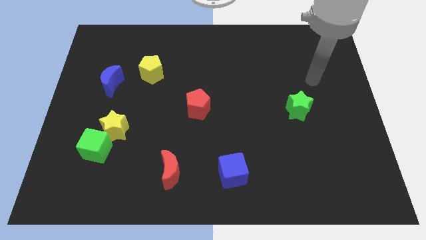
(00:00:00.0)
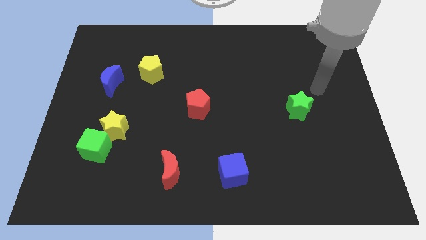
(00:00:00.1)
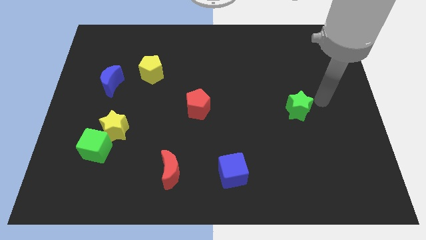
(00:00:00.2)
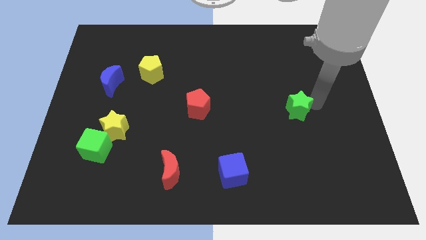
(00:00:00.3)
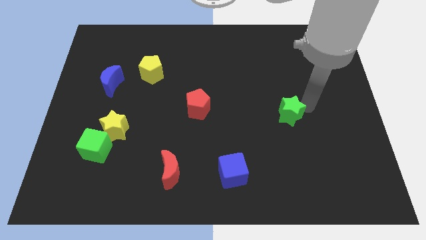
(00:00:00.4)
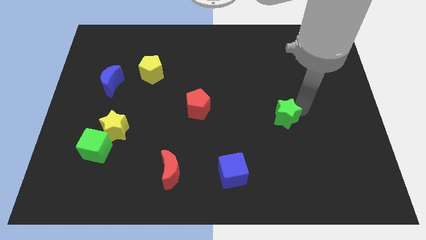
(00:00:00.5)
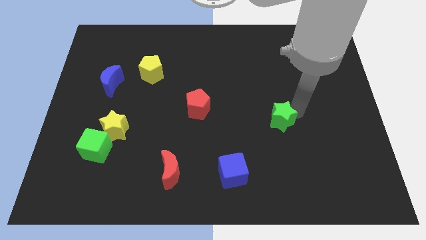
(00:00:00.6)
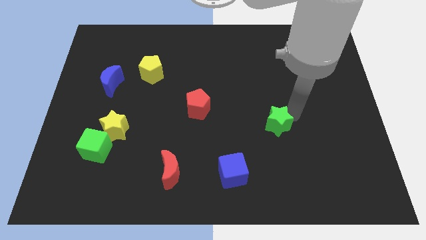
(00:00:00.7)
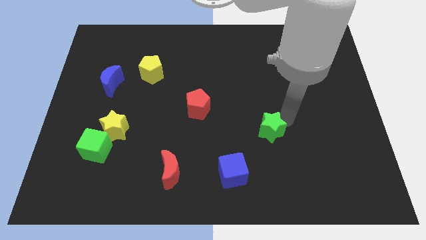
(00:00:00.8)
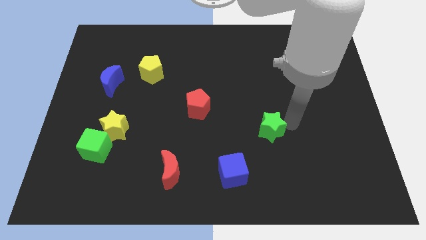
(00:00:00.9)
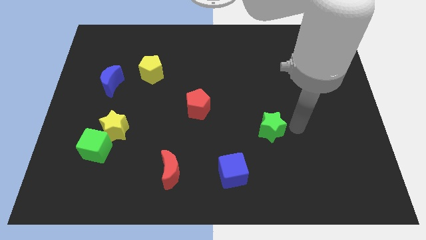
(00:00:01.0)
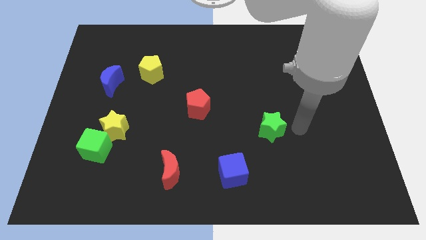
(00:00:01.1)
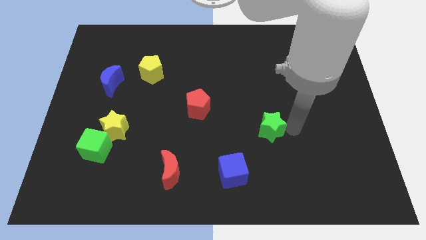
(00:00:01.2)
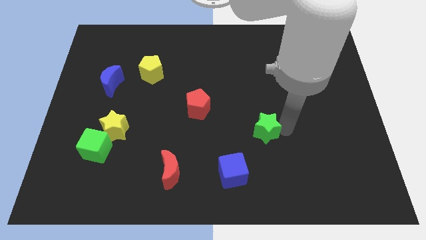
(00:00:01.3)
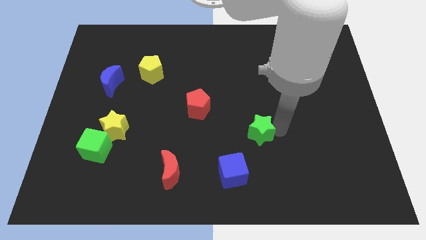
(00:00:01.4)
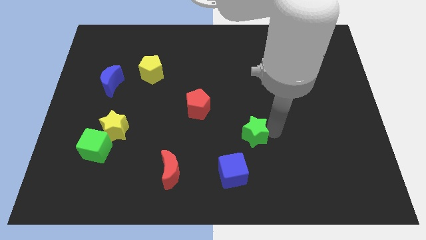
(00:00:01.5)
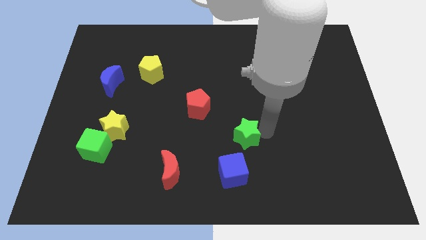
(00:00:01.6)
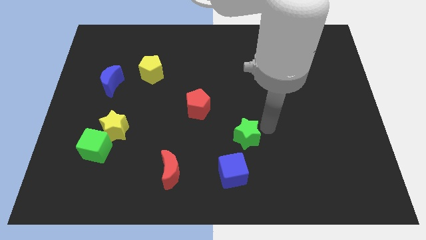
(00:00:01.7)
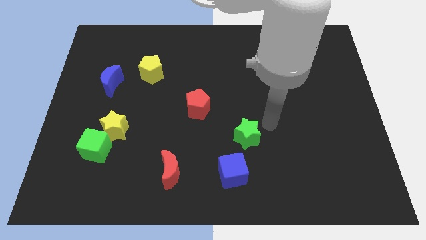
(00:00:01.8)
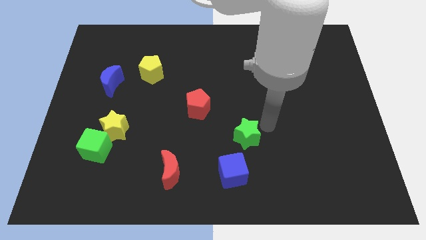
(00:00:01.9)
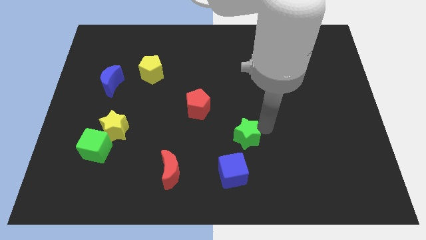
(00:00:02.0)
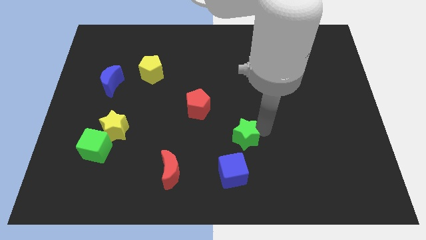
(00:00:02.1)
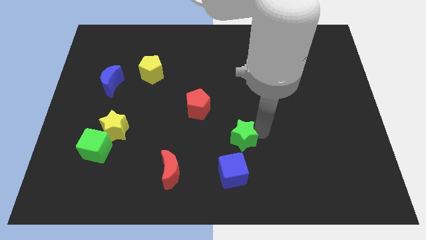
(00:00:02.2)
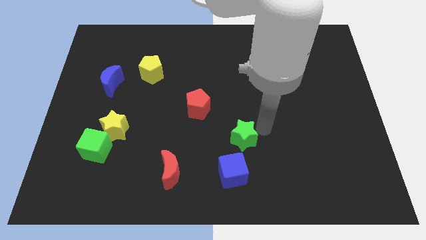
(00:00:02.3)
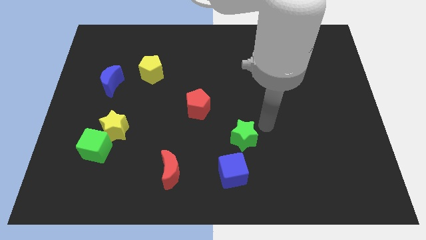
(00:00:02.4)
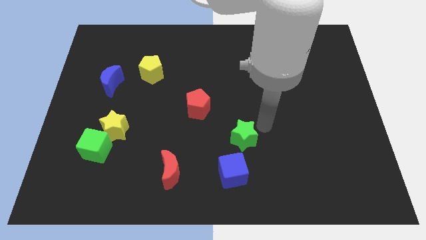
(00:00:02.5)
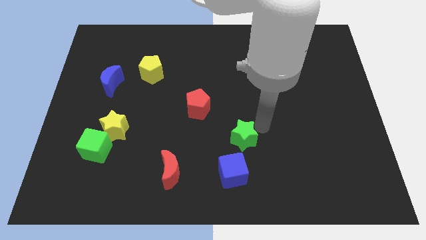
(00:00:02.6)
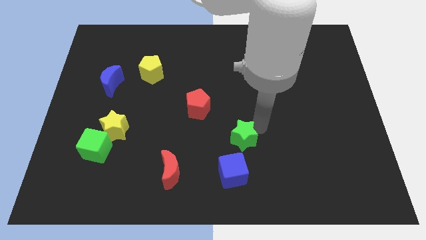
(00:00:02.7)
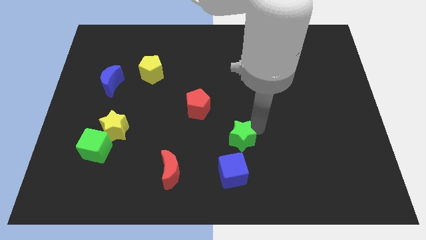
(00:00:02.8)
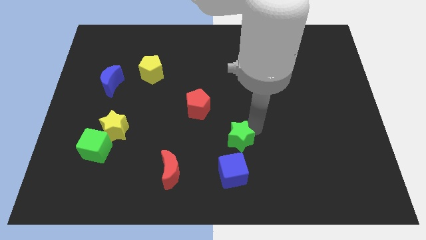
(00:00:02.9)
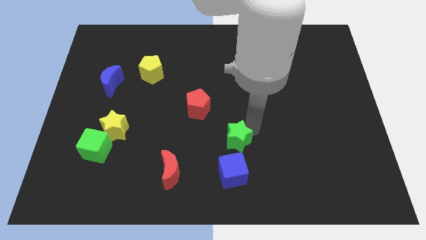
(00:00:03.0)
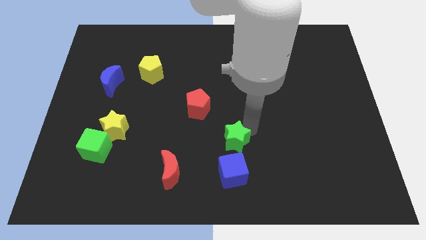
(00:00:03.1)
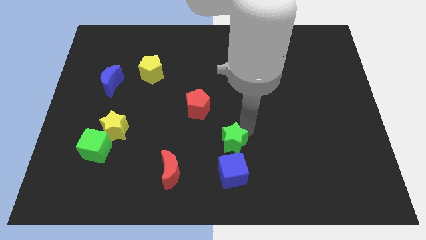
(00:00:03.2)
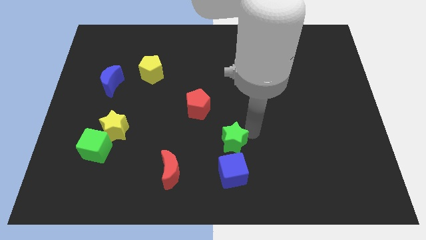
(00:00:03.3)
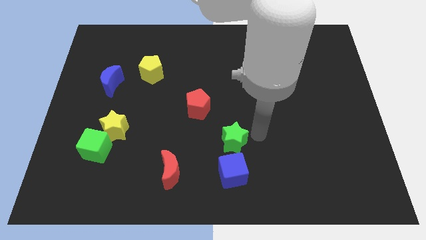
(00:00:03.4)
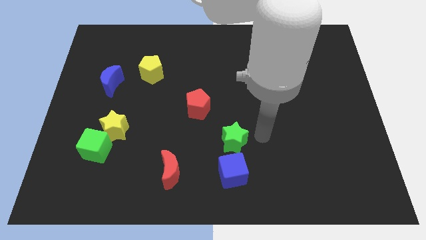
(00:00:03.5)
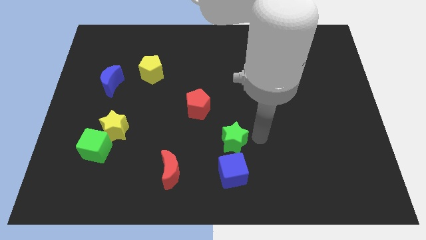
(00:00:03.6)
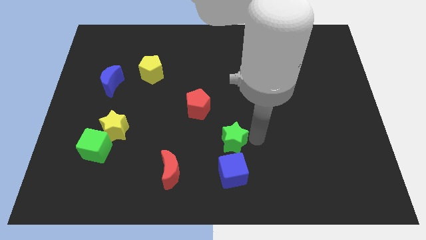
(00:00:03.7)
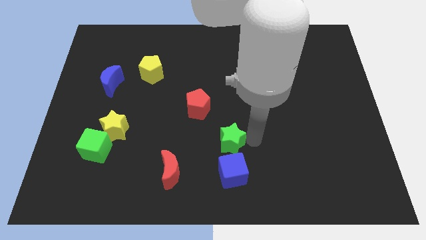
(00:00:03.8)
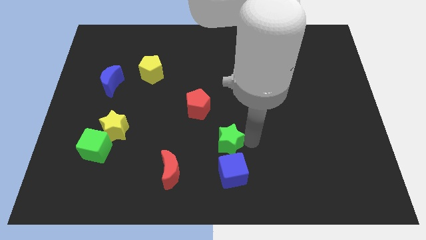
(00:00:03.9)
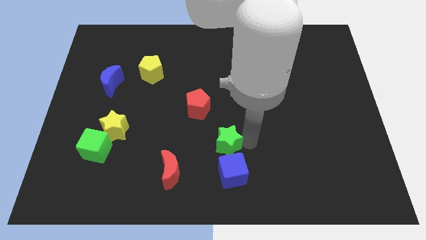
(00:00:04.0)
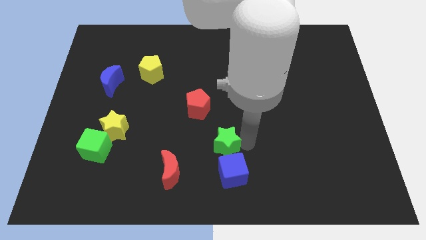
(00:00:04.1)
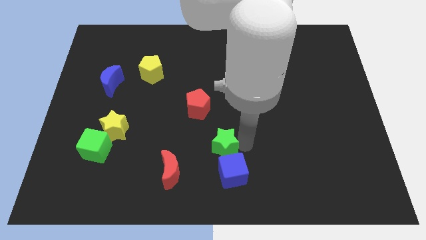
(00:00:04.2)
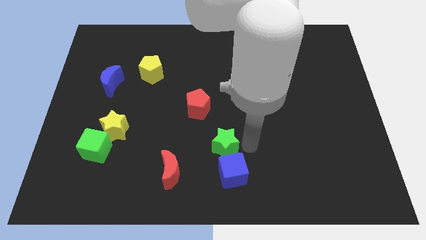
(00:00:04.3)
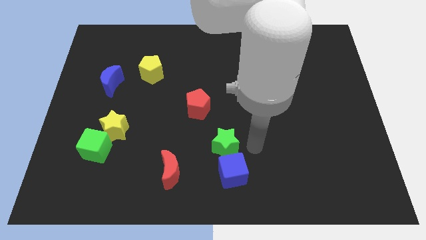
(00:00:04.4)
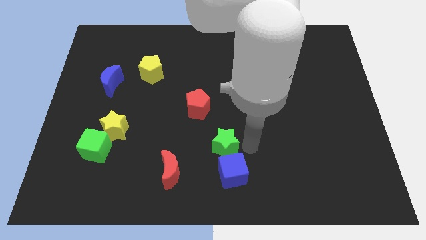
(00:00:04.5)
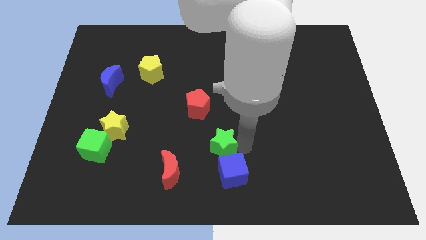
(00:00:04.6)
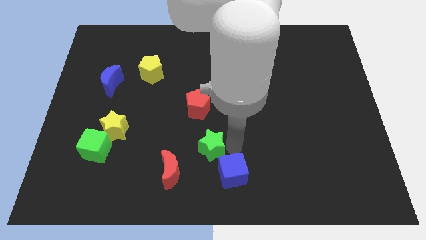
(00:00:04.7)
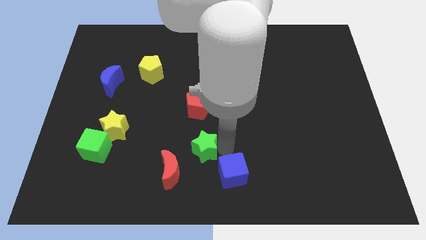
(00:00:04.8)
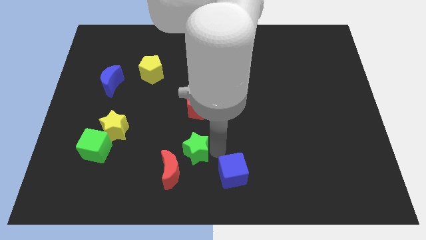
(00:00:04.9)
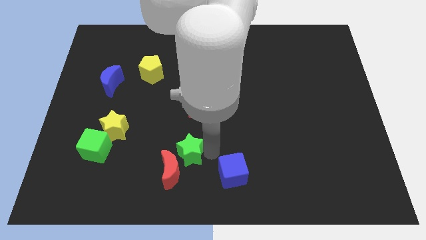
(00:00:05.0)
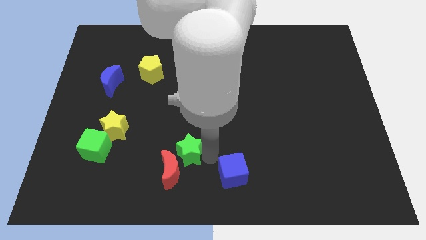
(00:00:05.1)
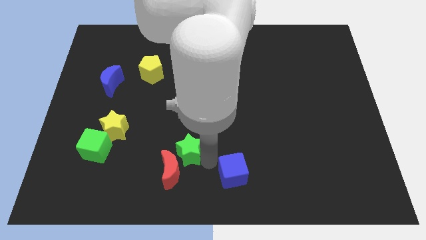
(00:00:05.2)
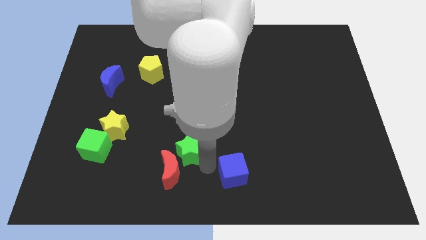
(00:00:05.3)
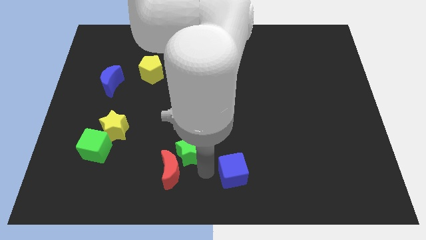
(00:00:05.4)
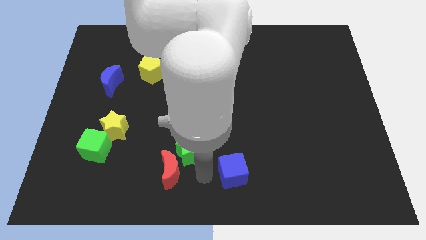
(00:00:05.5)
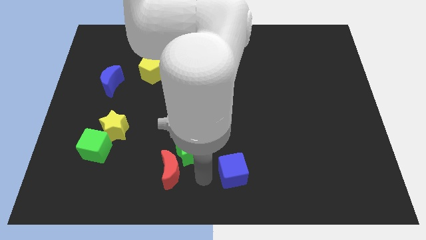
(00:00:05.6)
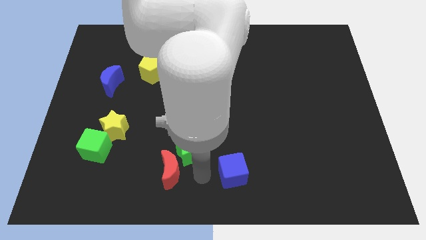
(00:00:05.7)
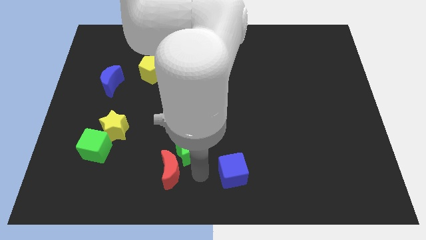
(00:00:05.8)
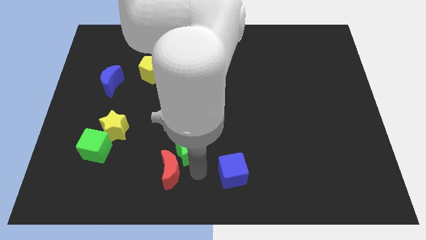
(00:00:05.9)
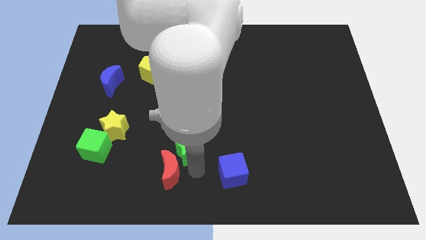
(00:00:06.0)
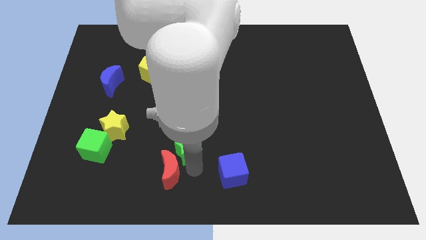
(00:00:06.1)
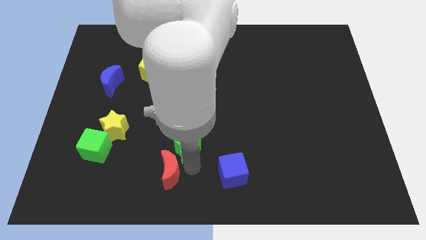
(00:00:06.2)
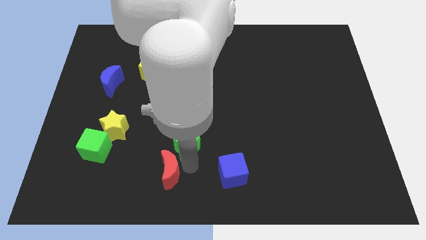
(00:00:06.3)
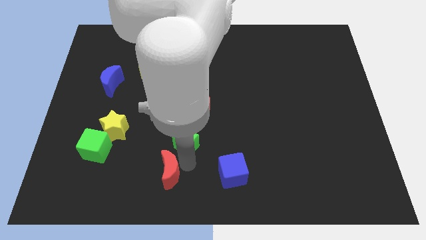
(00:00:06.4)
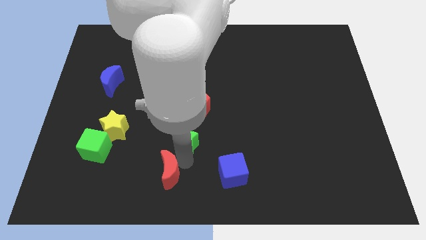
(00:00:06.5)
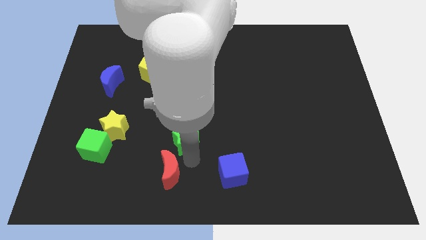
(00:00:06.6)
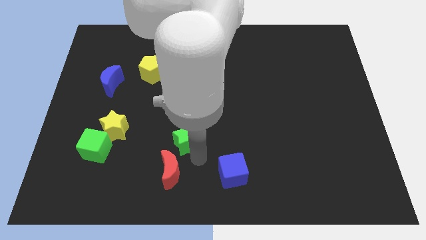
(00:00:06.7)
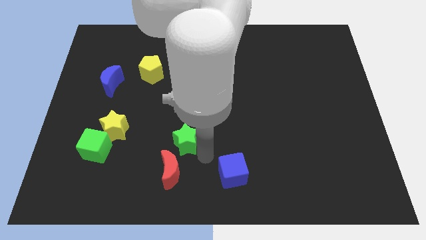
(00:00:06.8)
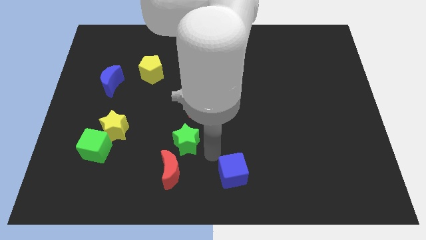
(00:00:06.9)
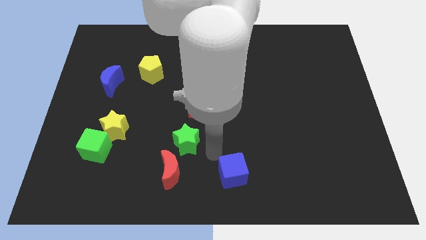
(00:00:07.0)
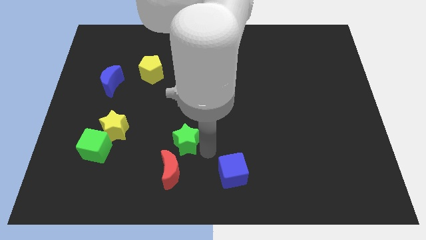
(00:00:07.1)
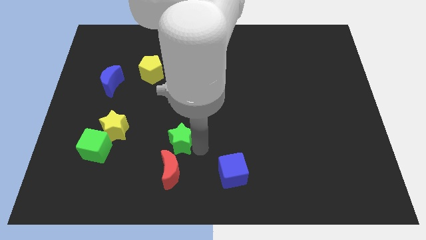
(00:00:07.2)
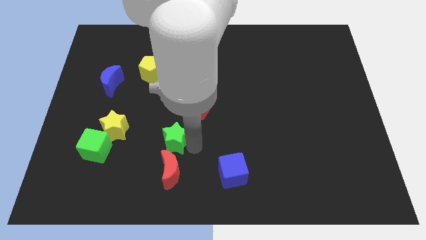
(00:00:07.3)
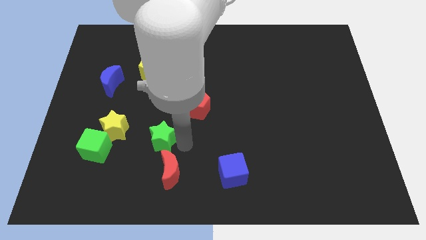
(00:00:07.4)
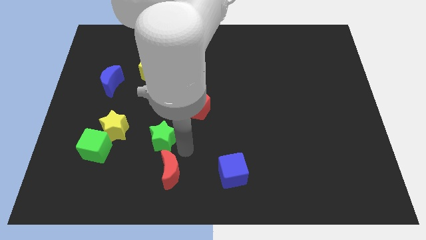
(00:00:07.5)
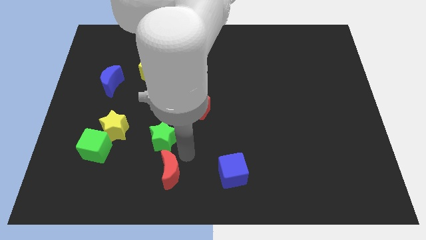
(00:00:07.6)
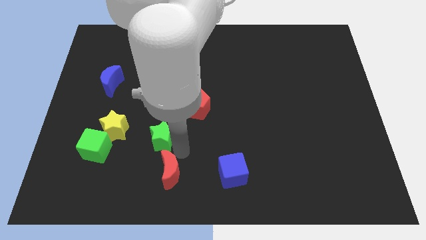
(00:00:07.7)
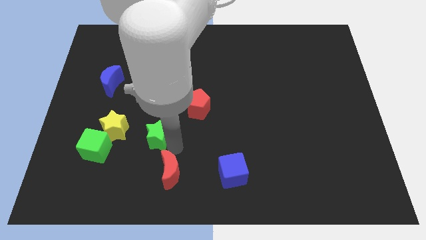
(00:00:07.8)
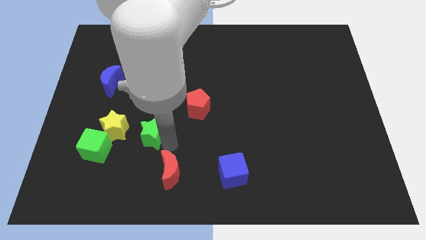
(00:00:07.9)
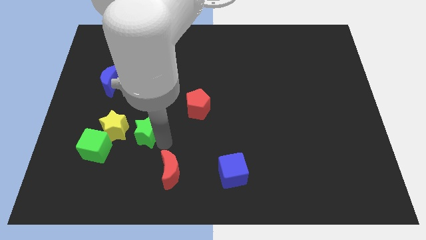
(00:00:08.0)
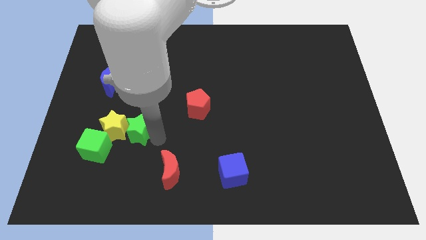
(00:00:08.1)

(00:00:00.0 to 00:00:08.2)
put the green star close to the yellow star
